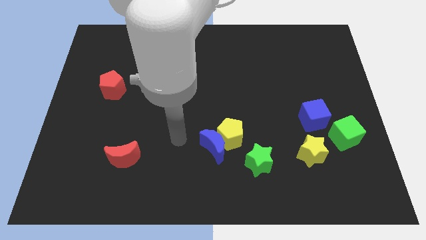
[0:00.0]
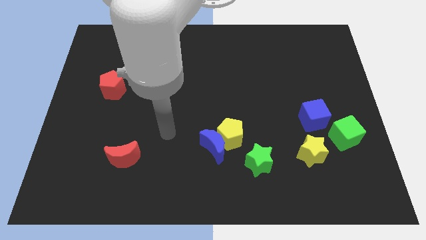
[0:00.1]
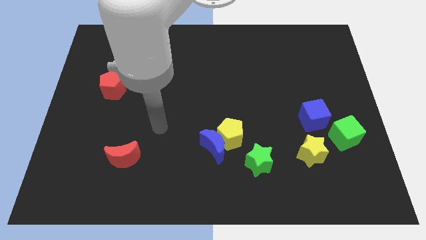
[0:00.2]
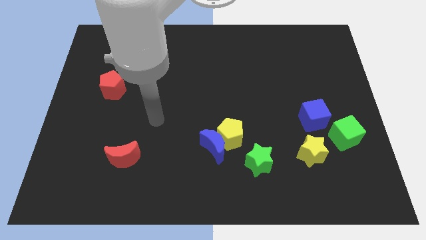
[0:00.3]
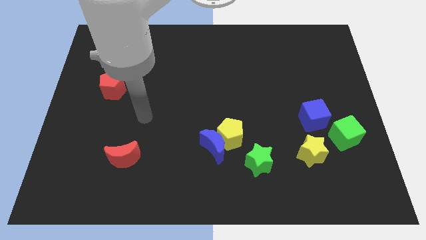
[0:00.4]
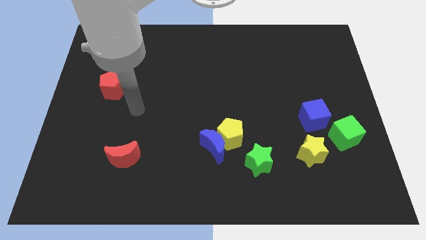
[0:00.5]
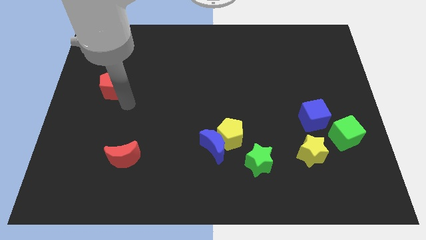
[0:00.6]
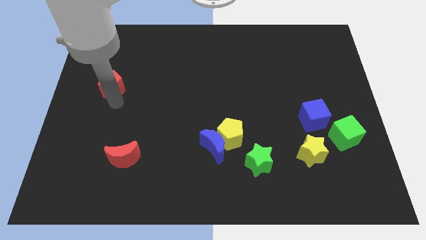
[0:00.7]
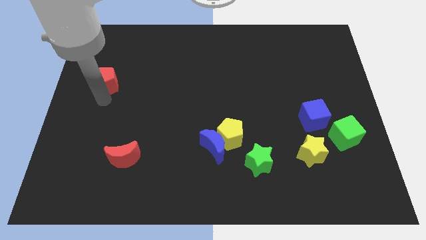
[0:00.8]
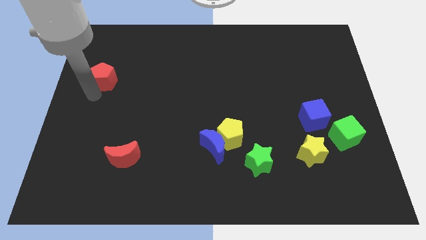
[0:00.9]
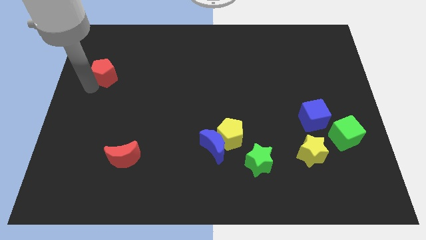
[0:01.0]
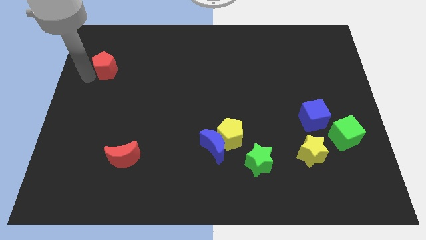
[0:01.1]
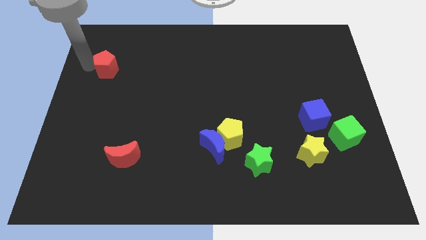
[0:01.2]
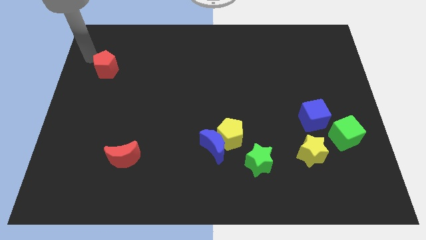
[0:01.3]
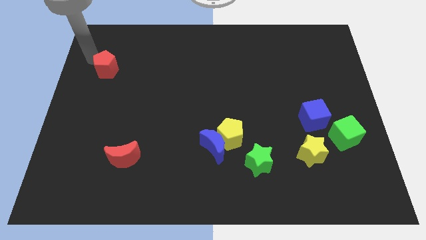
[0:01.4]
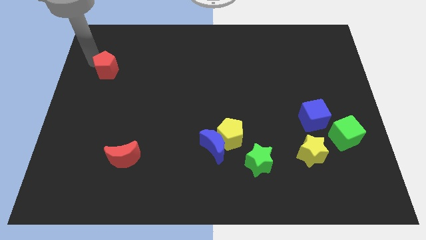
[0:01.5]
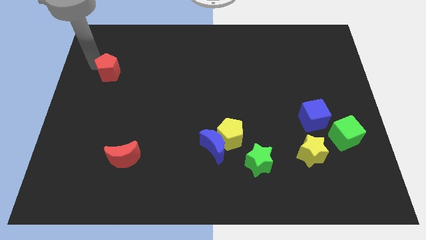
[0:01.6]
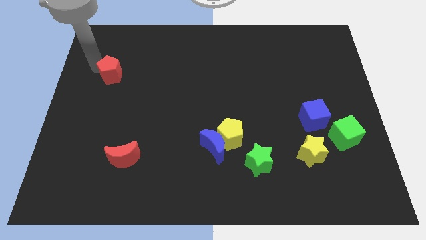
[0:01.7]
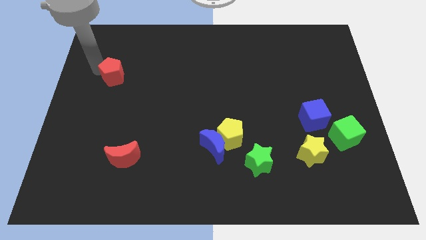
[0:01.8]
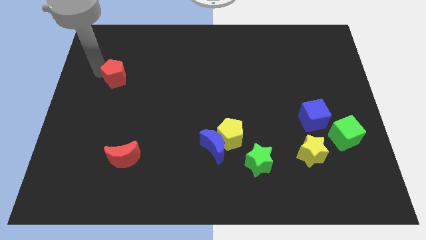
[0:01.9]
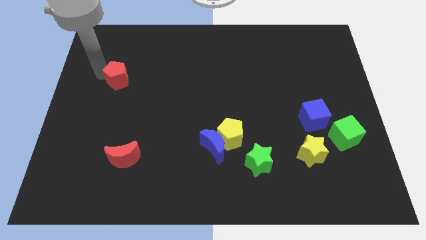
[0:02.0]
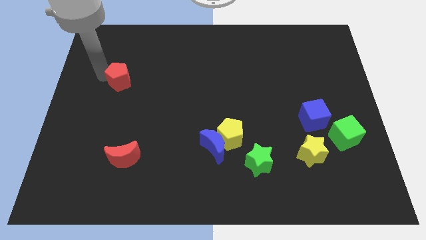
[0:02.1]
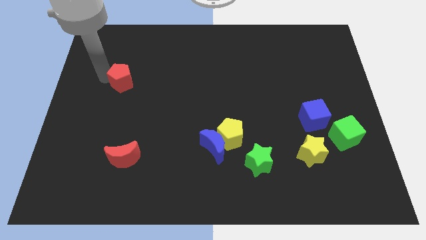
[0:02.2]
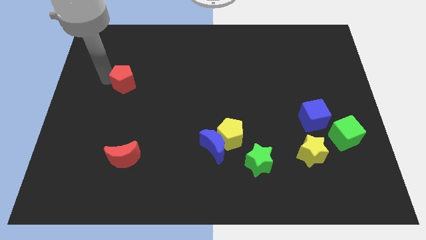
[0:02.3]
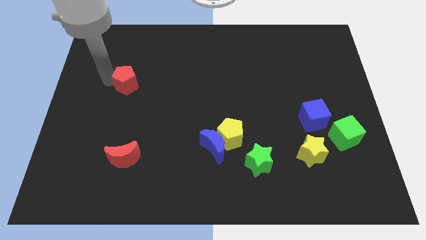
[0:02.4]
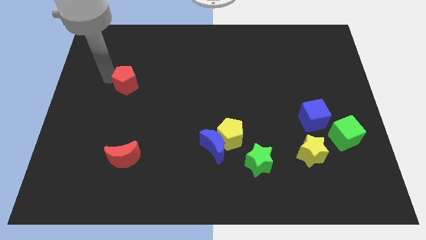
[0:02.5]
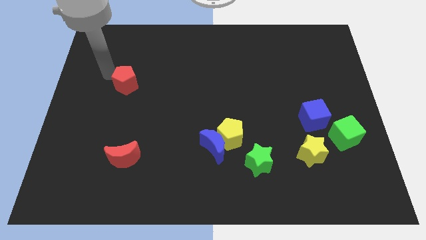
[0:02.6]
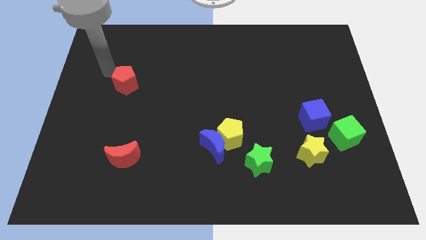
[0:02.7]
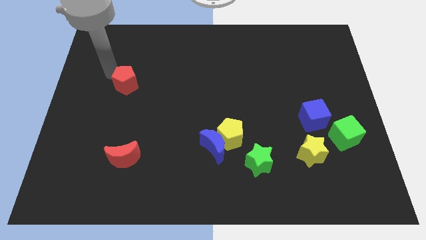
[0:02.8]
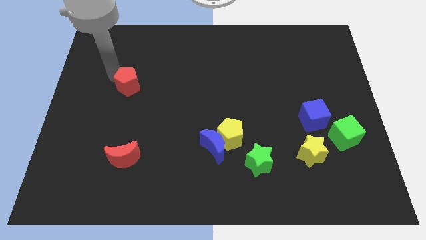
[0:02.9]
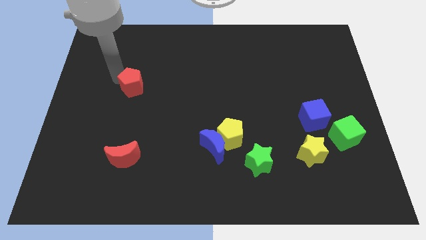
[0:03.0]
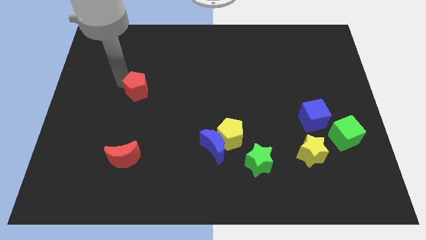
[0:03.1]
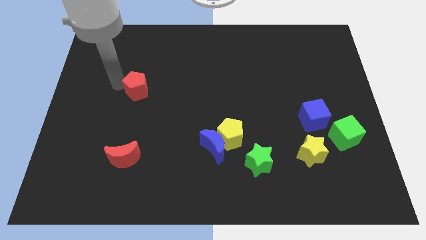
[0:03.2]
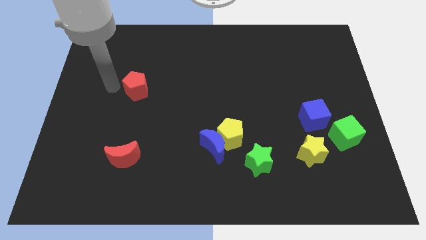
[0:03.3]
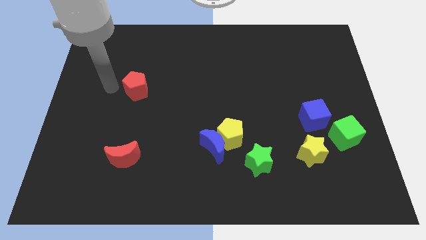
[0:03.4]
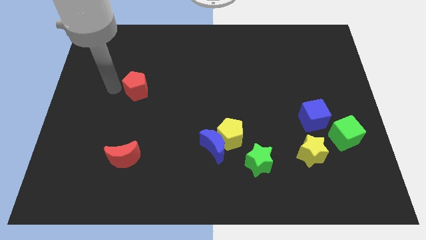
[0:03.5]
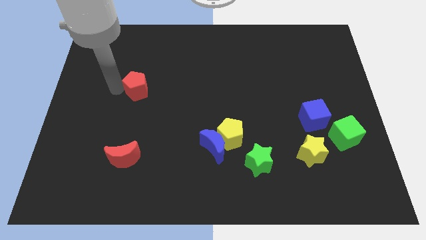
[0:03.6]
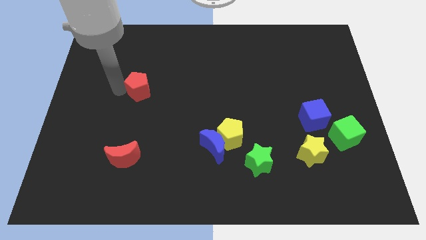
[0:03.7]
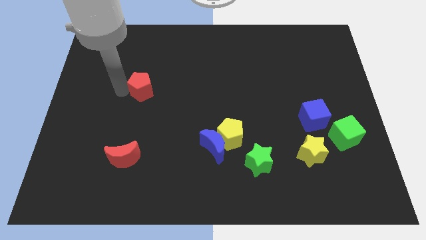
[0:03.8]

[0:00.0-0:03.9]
slide the red pentagon somewhat right

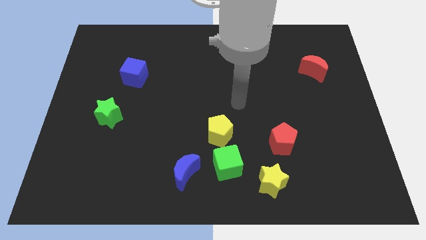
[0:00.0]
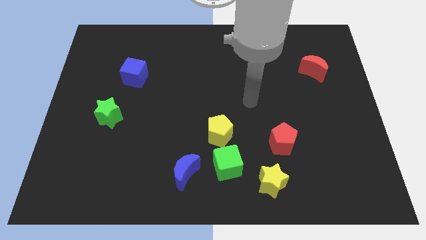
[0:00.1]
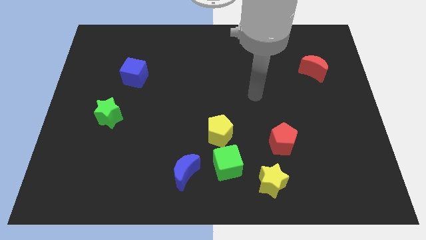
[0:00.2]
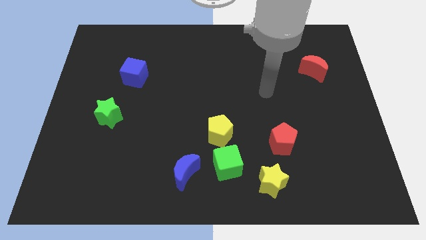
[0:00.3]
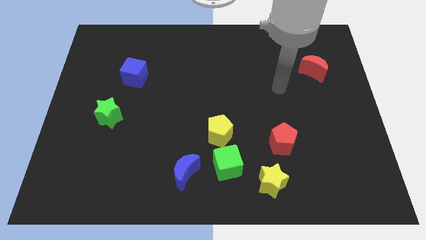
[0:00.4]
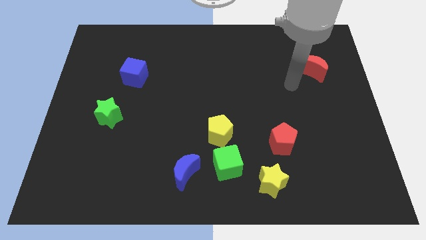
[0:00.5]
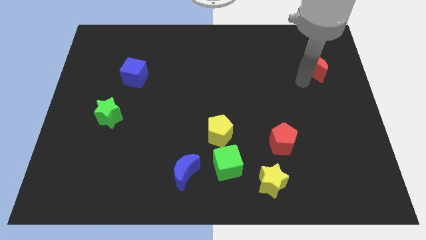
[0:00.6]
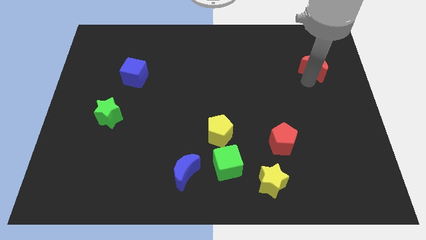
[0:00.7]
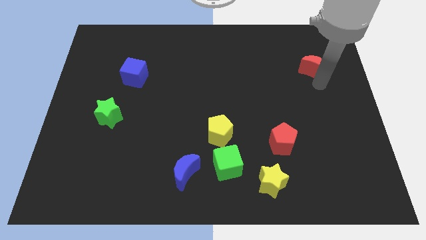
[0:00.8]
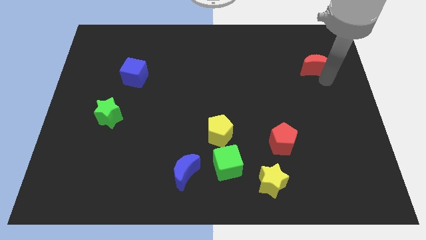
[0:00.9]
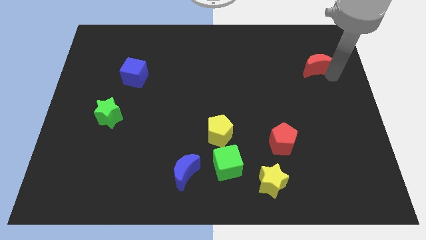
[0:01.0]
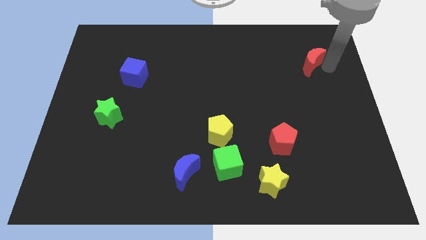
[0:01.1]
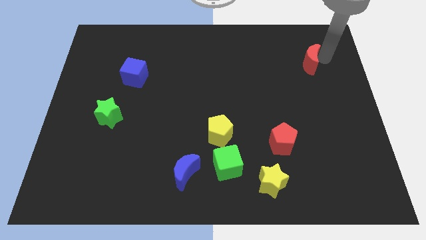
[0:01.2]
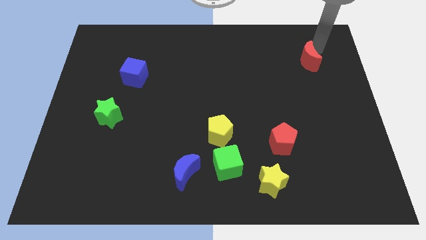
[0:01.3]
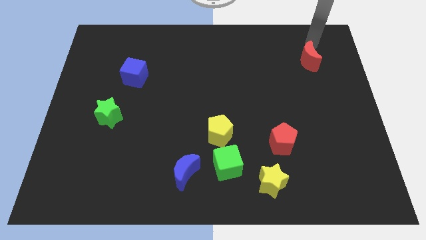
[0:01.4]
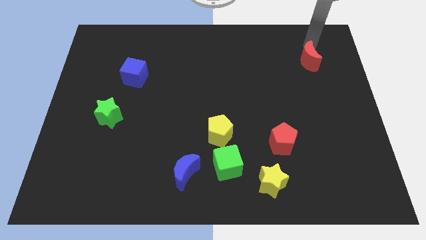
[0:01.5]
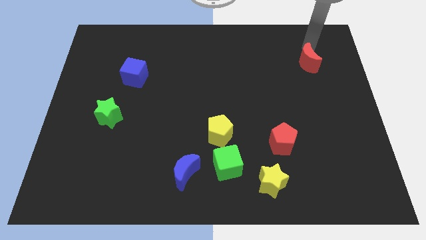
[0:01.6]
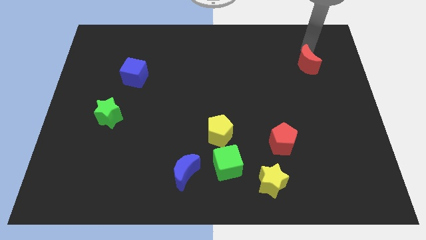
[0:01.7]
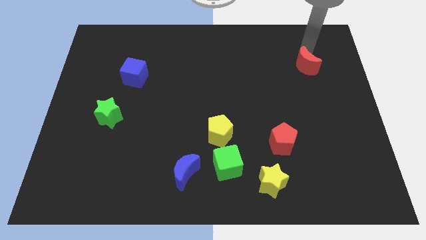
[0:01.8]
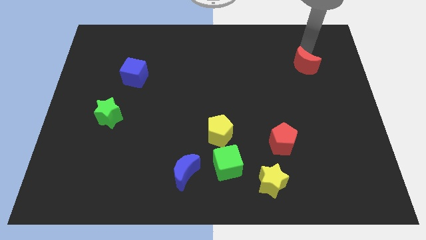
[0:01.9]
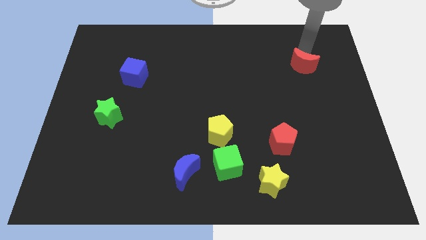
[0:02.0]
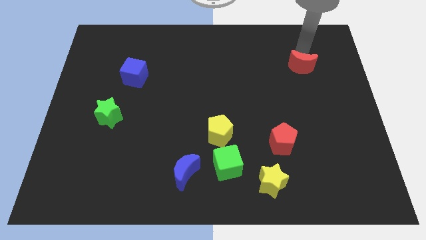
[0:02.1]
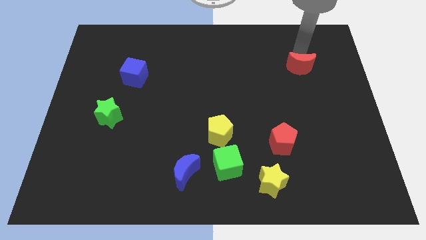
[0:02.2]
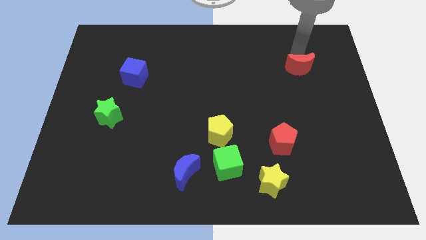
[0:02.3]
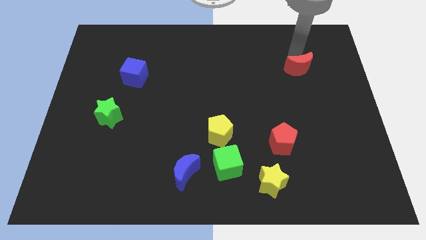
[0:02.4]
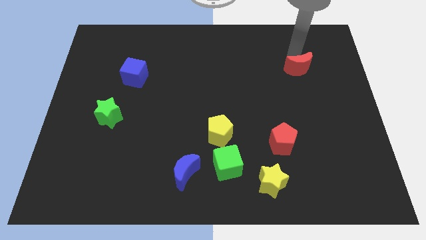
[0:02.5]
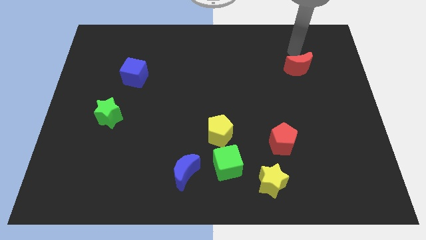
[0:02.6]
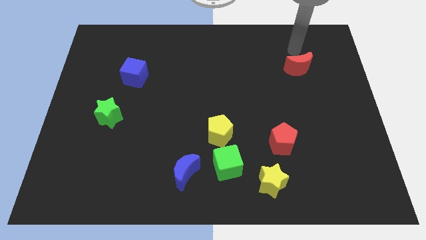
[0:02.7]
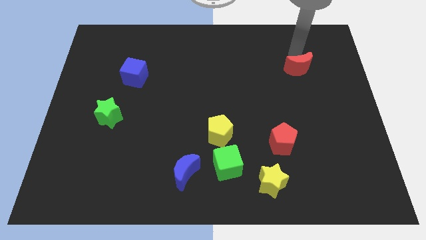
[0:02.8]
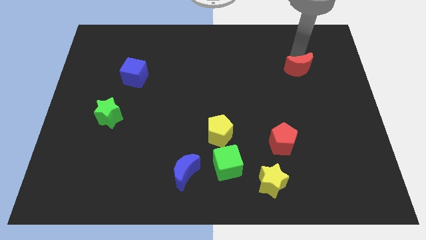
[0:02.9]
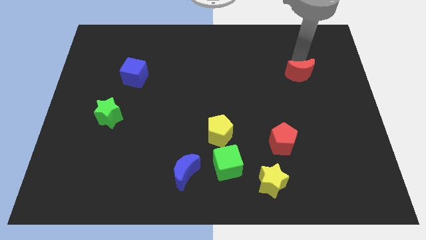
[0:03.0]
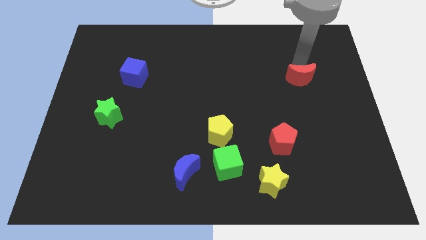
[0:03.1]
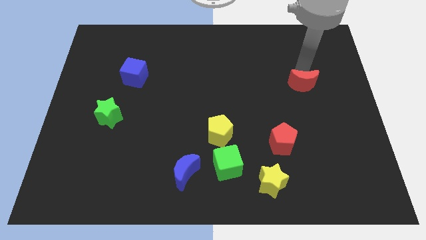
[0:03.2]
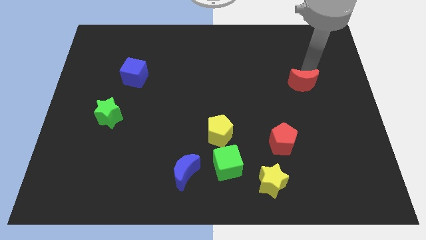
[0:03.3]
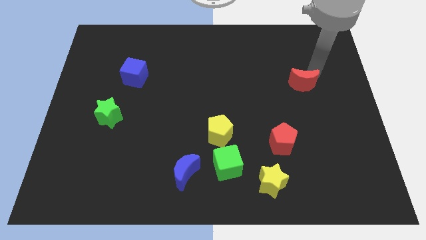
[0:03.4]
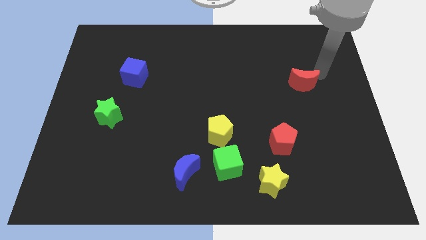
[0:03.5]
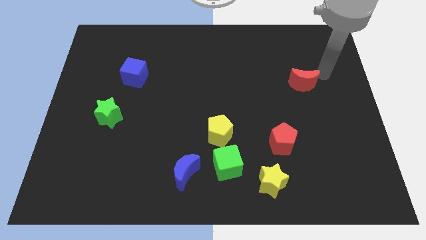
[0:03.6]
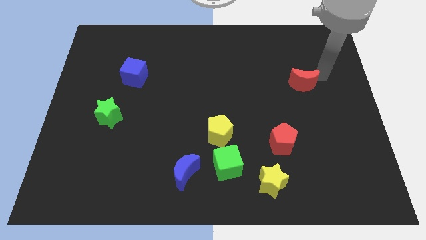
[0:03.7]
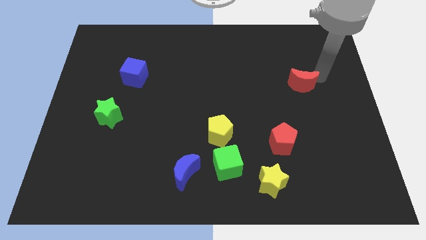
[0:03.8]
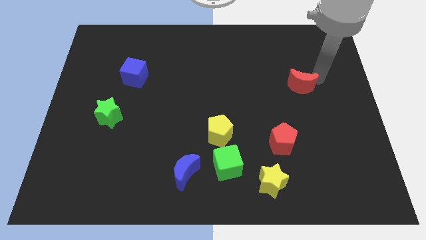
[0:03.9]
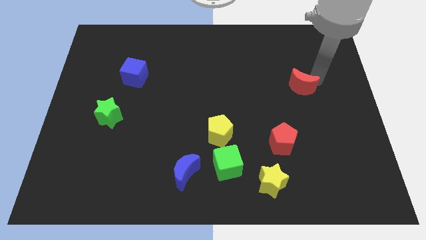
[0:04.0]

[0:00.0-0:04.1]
slightly slide the red moon down and left diagonally

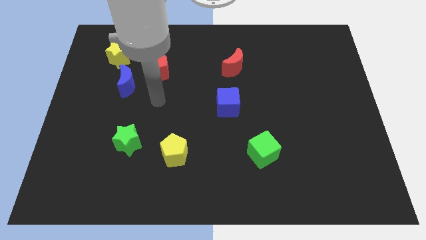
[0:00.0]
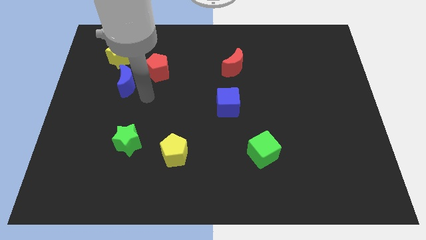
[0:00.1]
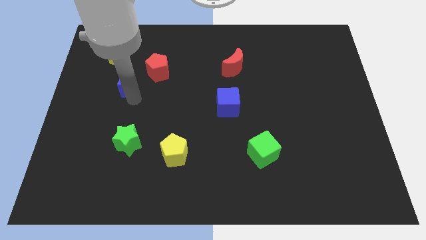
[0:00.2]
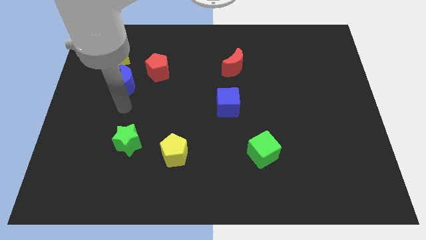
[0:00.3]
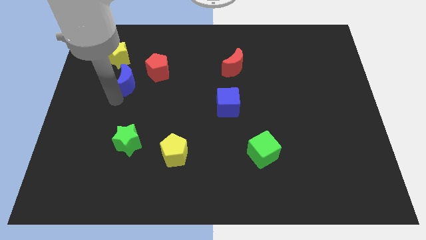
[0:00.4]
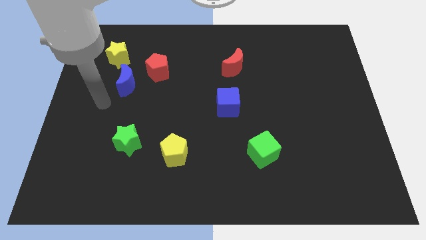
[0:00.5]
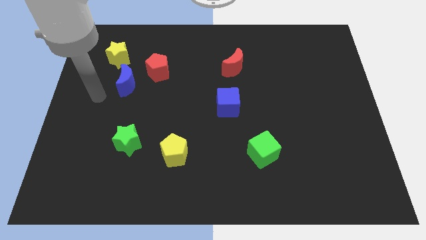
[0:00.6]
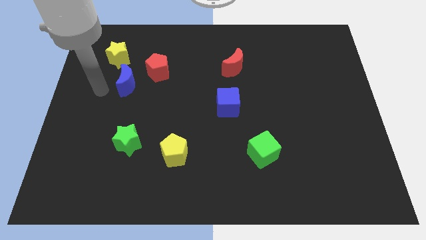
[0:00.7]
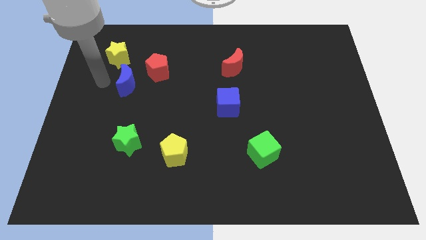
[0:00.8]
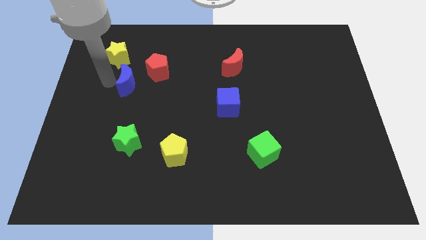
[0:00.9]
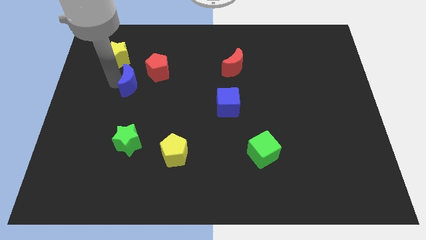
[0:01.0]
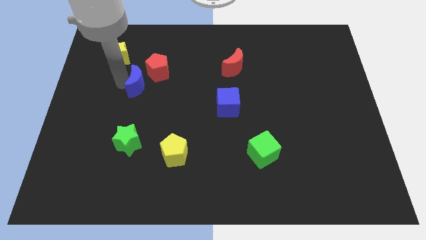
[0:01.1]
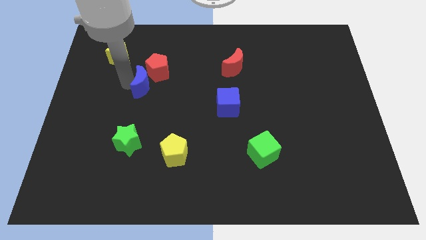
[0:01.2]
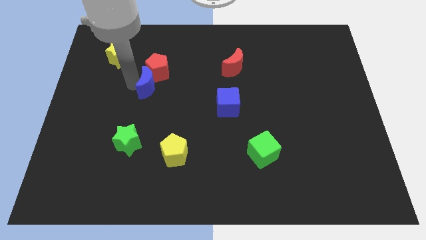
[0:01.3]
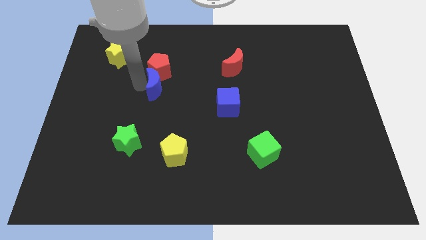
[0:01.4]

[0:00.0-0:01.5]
slightly slide the blue moon to the right
